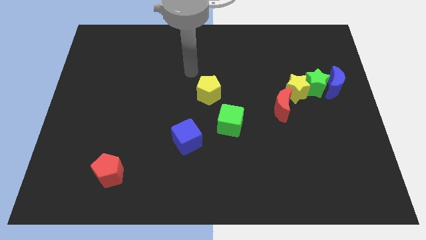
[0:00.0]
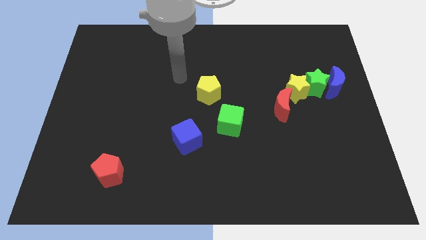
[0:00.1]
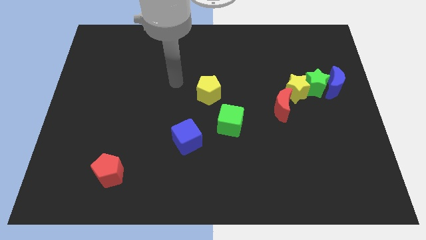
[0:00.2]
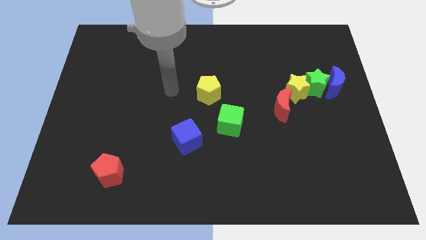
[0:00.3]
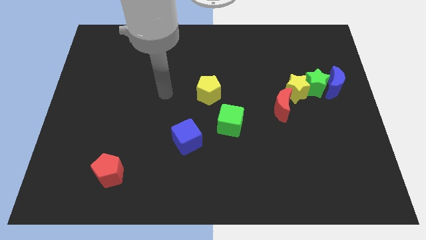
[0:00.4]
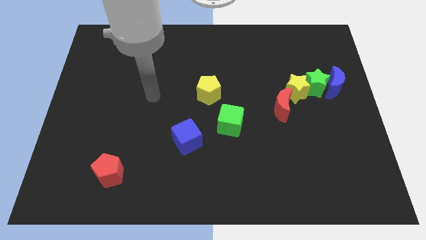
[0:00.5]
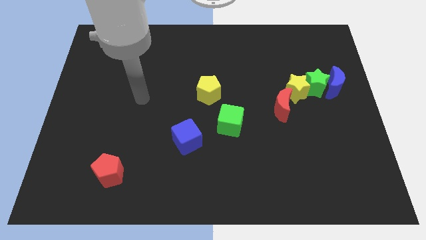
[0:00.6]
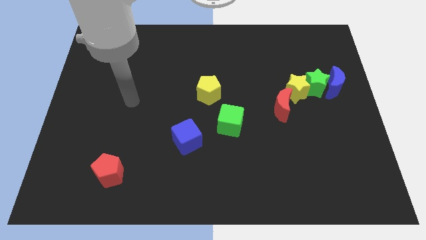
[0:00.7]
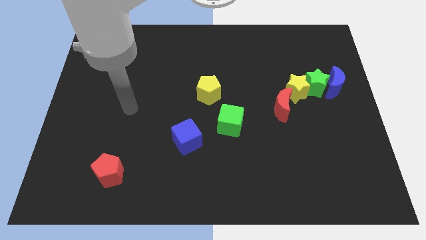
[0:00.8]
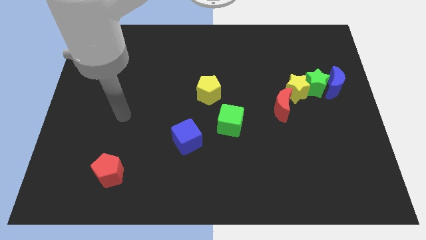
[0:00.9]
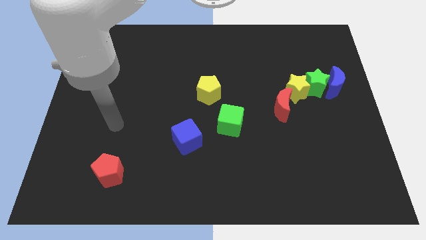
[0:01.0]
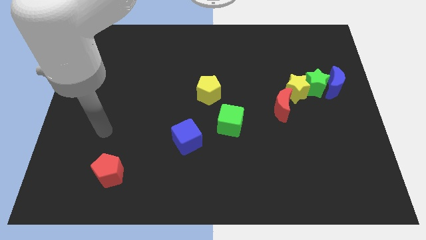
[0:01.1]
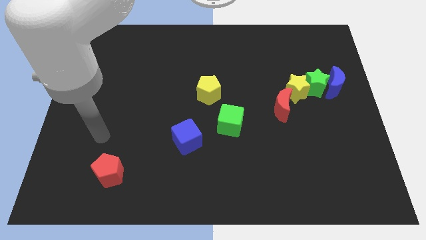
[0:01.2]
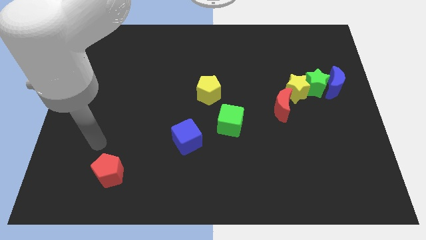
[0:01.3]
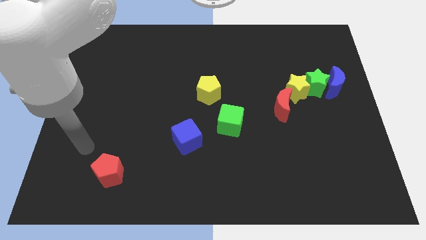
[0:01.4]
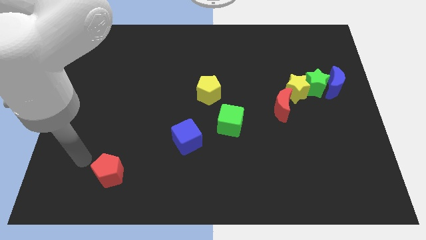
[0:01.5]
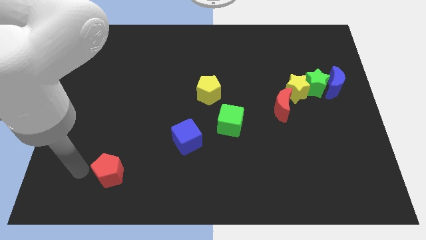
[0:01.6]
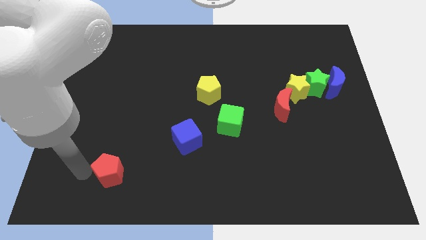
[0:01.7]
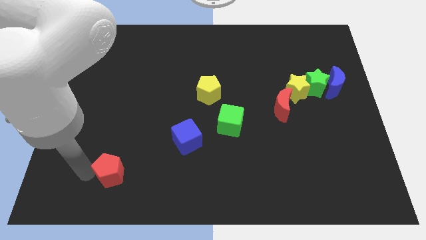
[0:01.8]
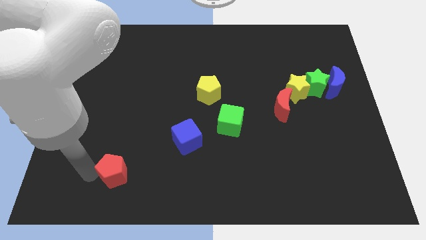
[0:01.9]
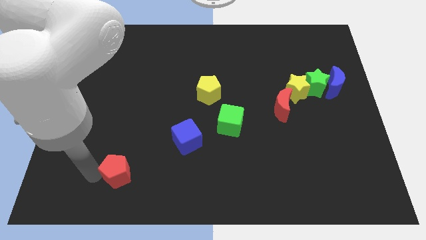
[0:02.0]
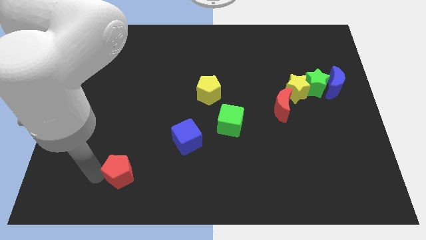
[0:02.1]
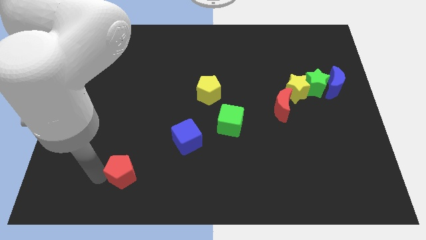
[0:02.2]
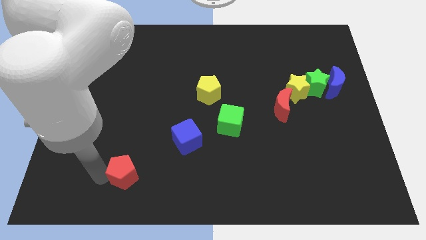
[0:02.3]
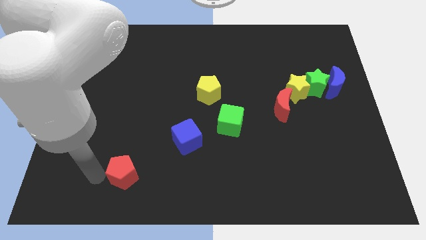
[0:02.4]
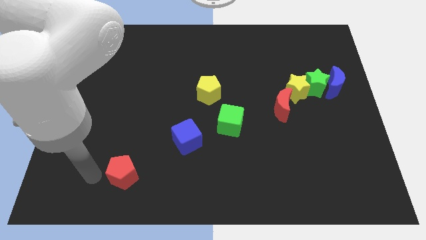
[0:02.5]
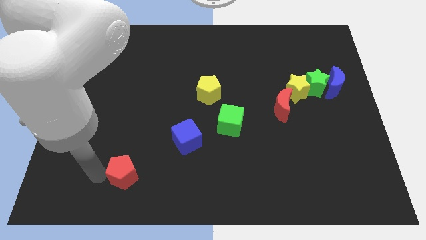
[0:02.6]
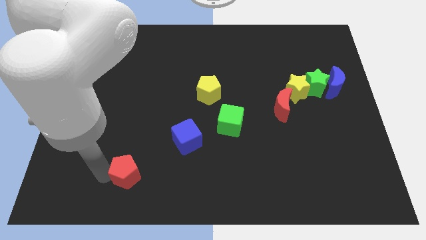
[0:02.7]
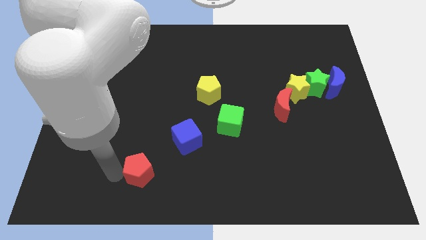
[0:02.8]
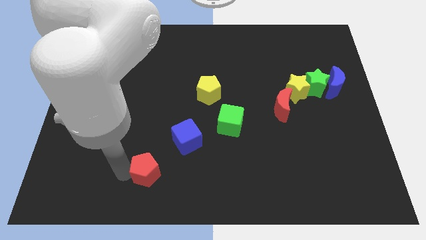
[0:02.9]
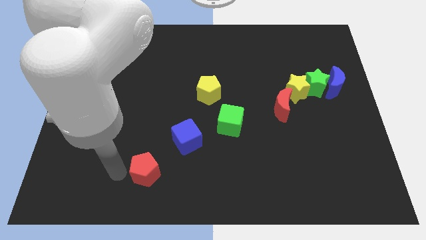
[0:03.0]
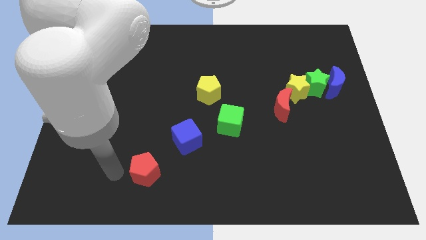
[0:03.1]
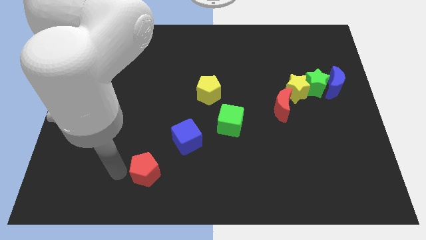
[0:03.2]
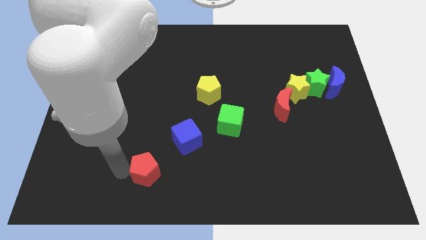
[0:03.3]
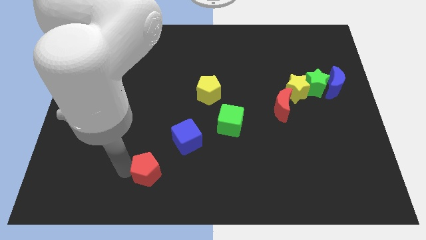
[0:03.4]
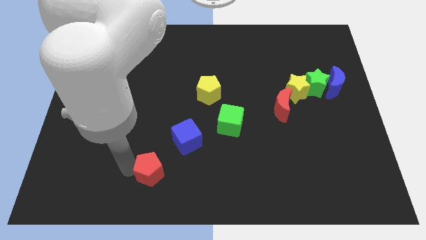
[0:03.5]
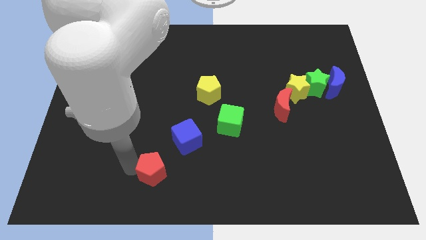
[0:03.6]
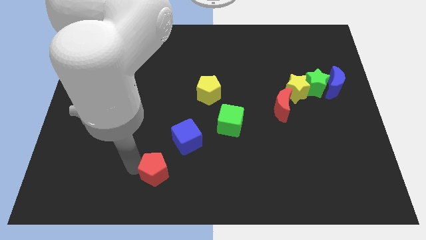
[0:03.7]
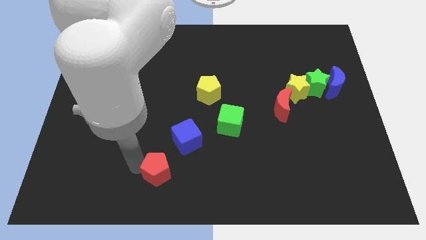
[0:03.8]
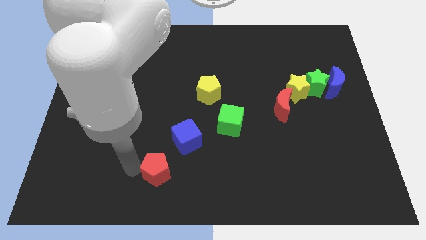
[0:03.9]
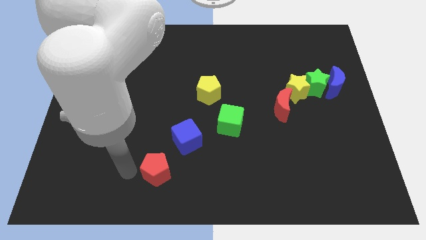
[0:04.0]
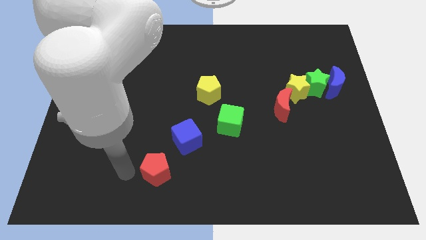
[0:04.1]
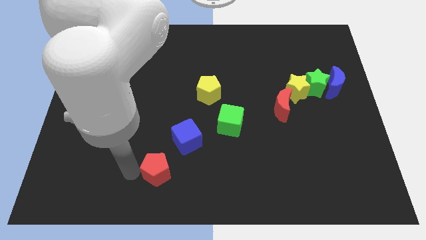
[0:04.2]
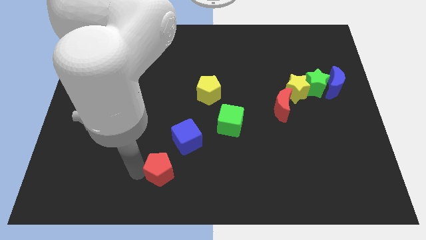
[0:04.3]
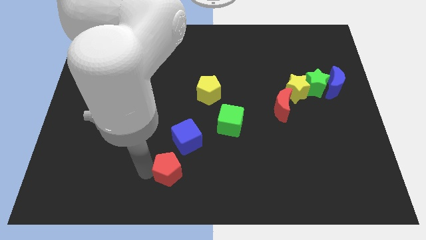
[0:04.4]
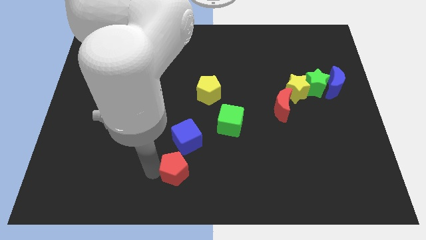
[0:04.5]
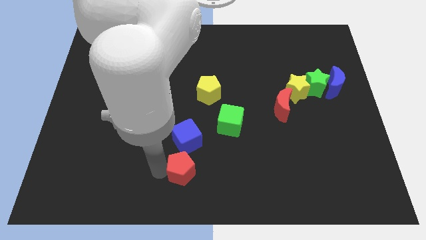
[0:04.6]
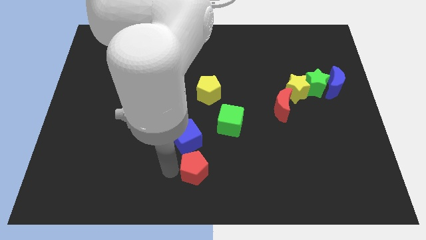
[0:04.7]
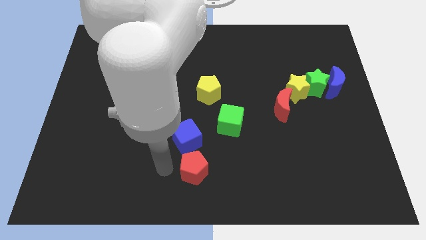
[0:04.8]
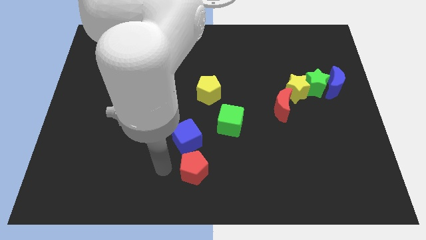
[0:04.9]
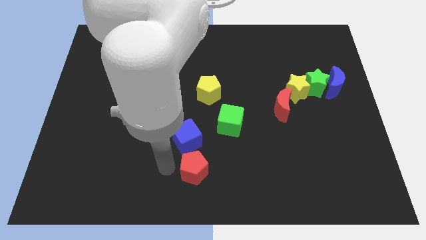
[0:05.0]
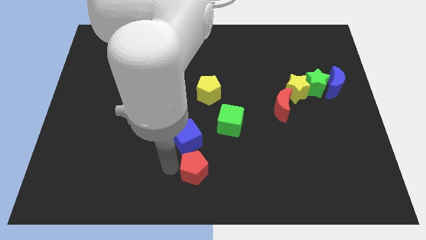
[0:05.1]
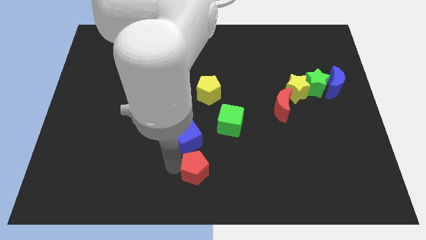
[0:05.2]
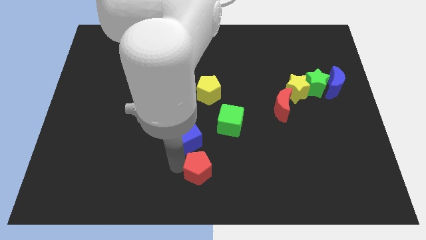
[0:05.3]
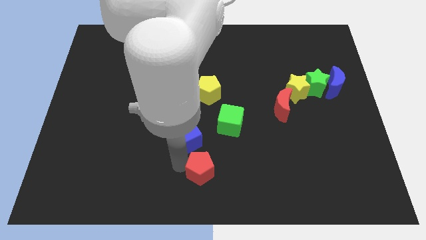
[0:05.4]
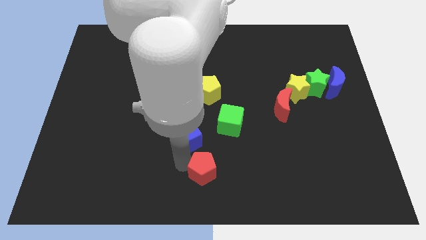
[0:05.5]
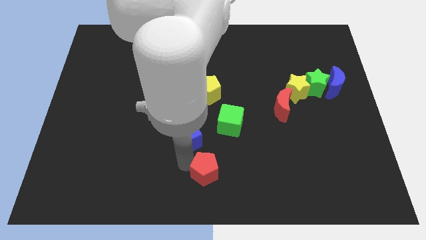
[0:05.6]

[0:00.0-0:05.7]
slide the red pentagon right

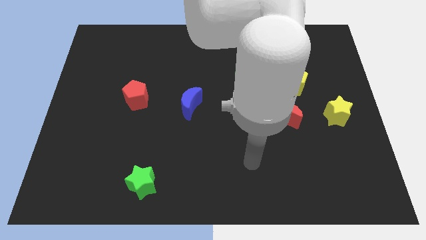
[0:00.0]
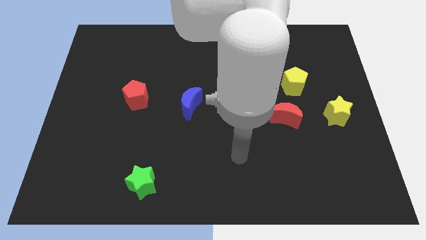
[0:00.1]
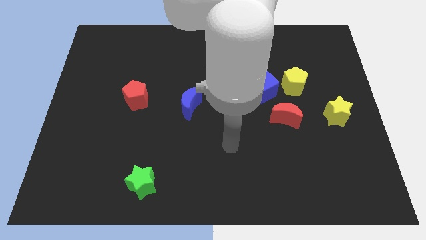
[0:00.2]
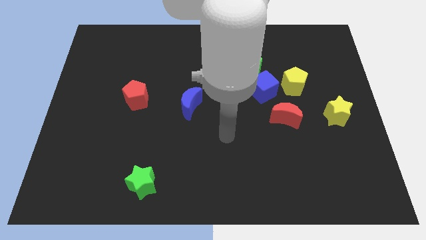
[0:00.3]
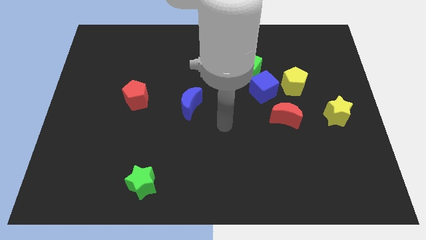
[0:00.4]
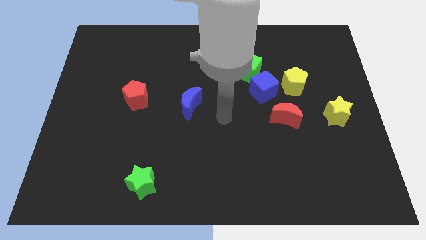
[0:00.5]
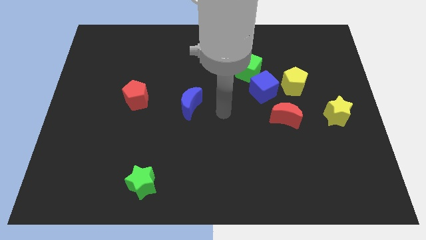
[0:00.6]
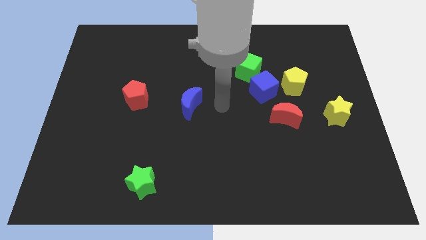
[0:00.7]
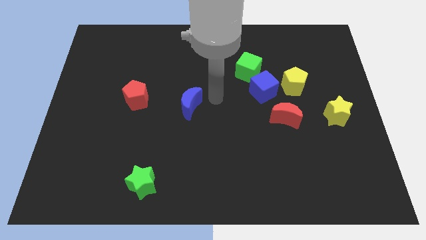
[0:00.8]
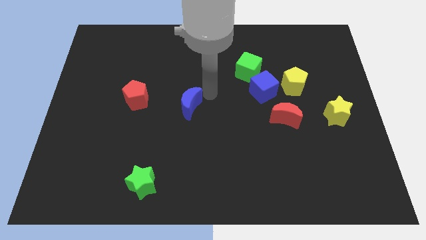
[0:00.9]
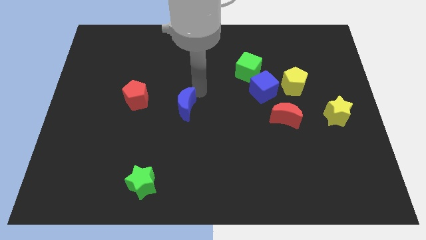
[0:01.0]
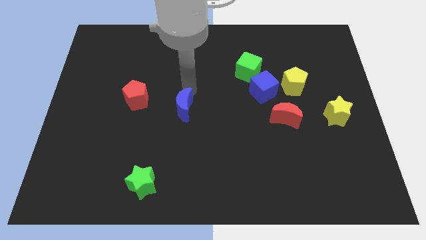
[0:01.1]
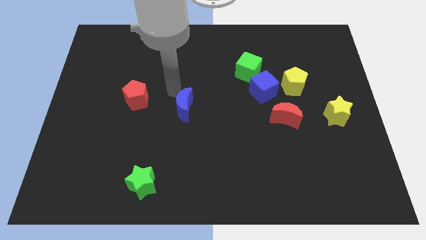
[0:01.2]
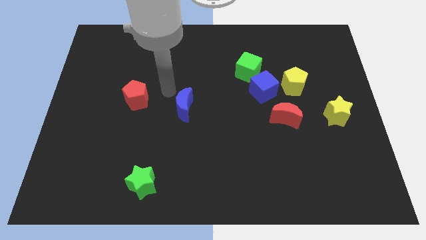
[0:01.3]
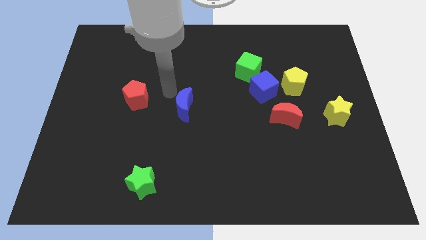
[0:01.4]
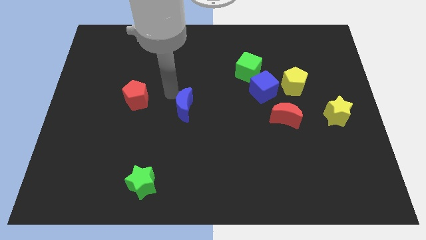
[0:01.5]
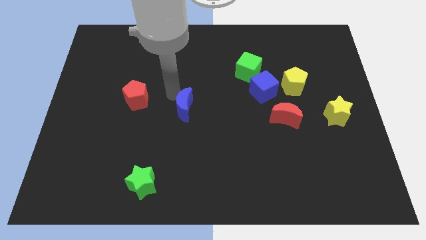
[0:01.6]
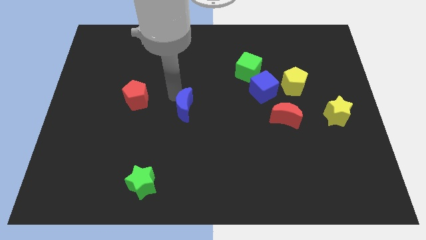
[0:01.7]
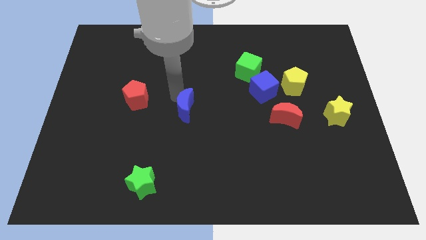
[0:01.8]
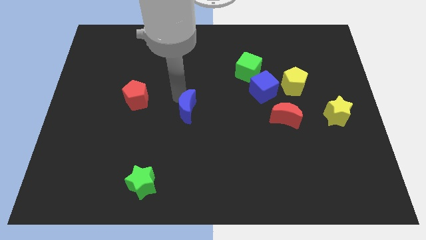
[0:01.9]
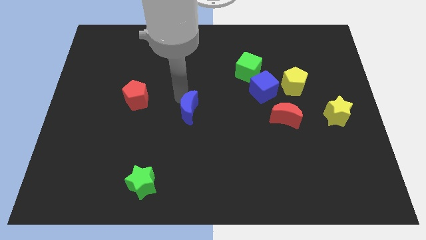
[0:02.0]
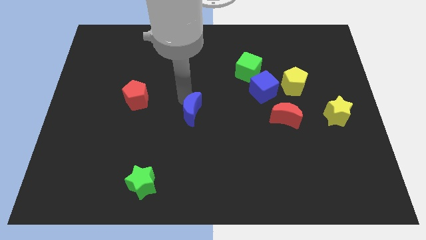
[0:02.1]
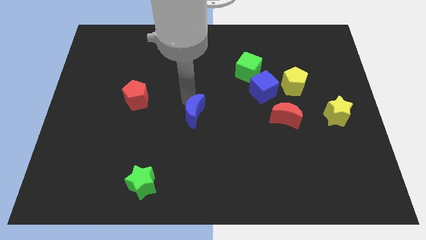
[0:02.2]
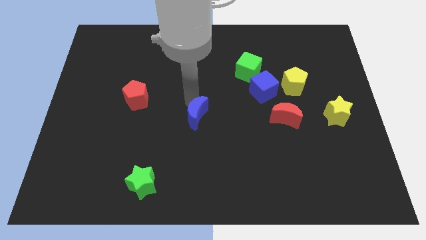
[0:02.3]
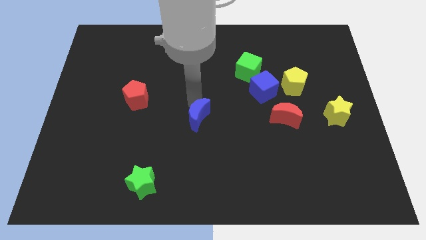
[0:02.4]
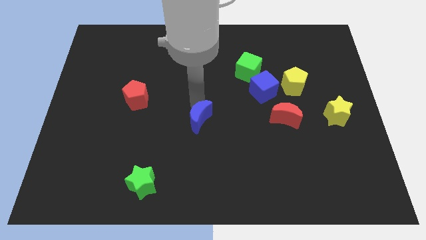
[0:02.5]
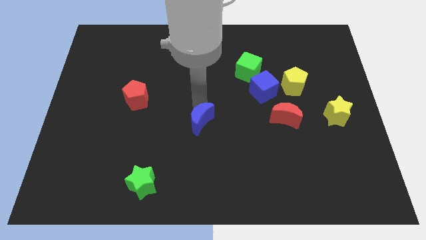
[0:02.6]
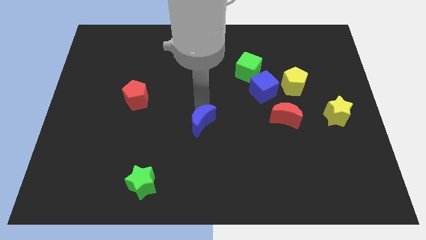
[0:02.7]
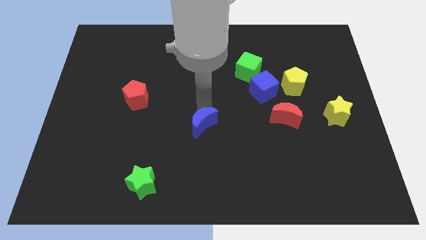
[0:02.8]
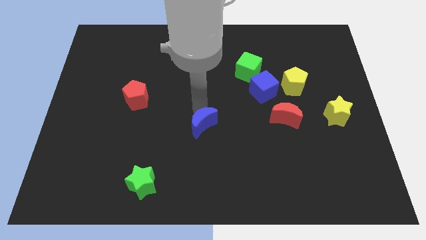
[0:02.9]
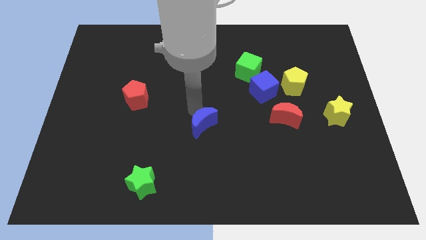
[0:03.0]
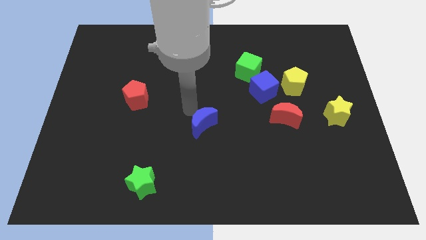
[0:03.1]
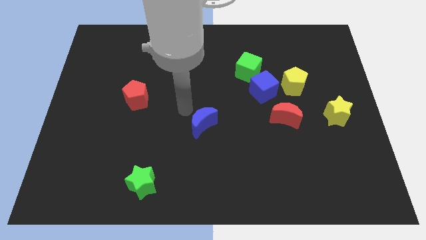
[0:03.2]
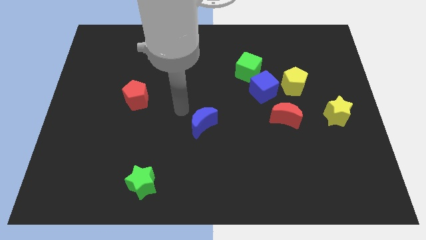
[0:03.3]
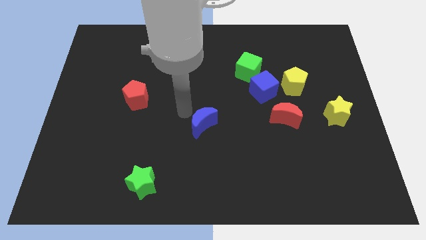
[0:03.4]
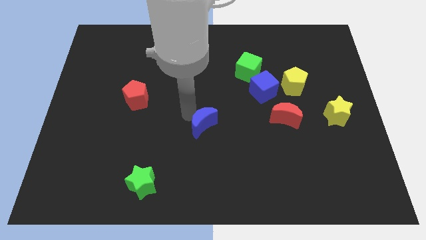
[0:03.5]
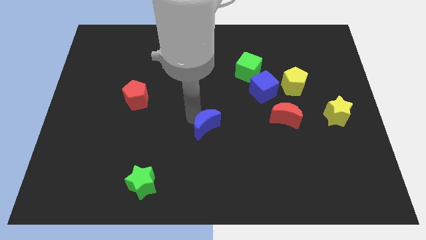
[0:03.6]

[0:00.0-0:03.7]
slide the blue moon a little down and right diagonally
